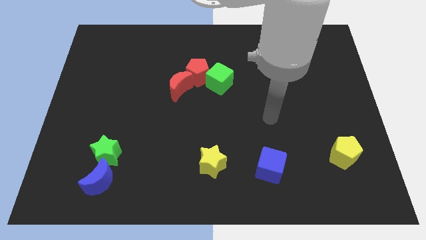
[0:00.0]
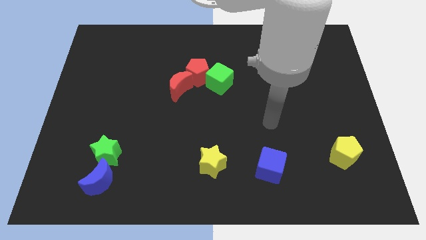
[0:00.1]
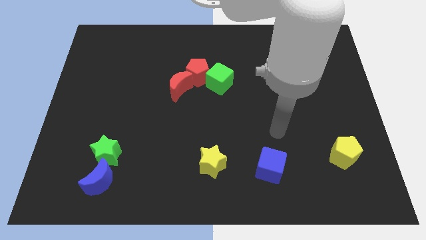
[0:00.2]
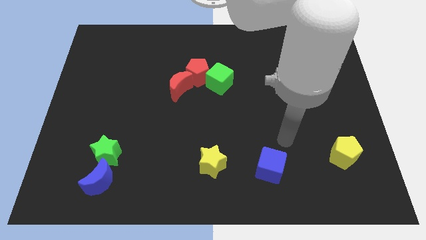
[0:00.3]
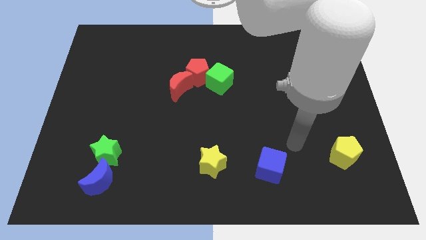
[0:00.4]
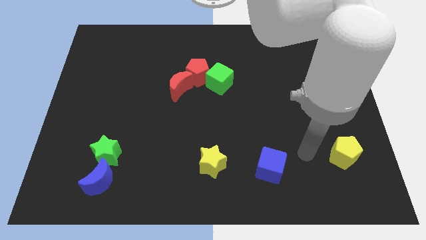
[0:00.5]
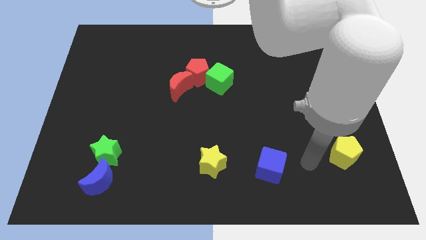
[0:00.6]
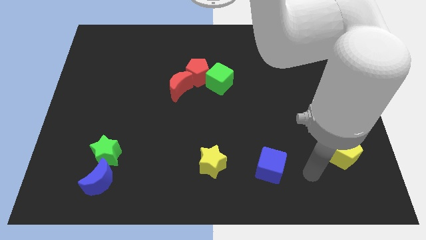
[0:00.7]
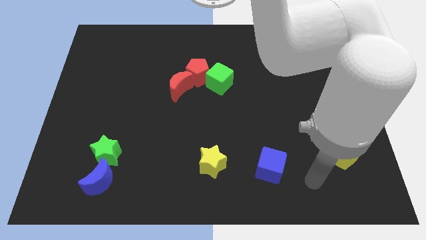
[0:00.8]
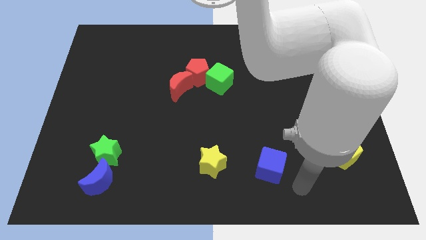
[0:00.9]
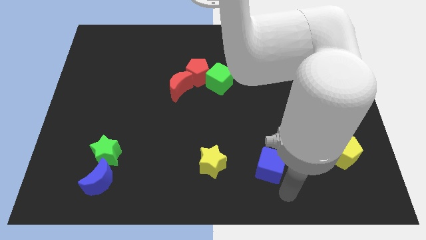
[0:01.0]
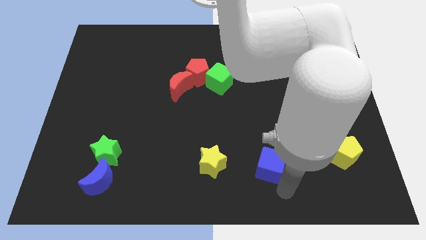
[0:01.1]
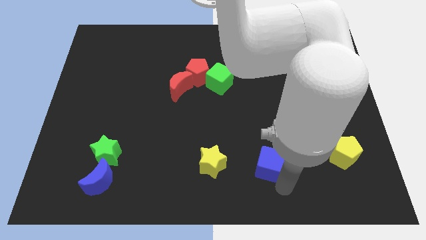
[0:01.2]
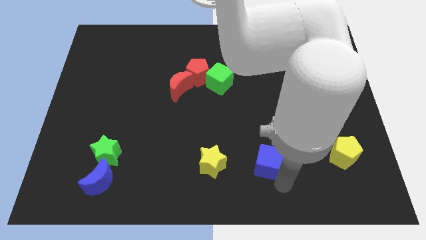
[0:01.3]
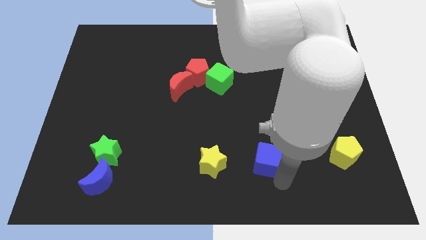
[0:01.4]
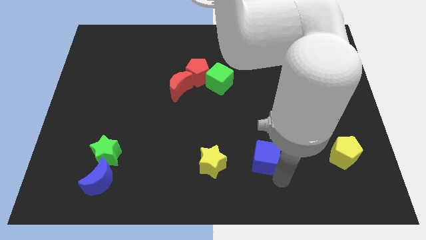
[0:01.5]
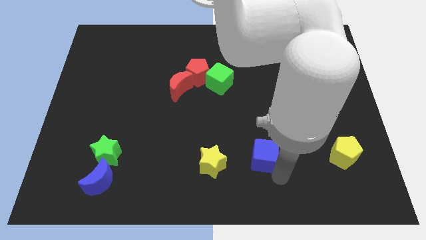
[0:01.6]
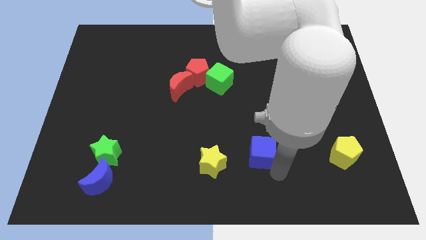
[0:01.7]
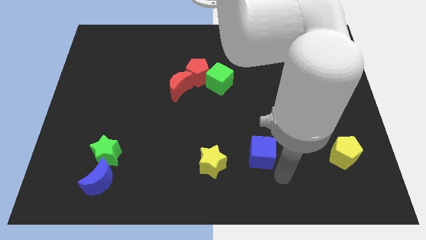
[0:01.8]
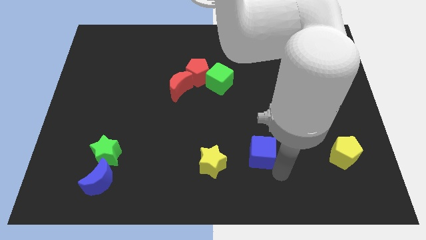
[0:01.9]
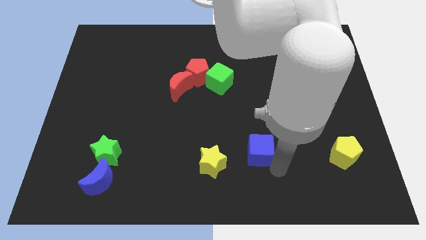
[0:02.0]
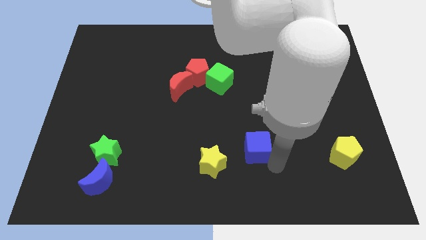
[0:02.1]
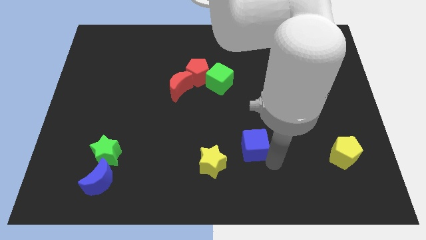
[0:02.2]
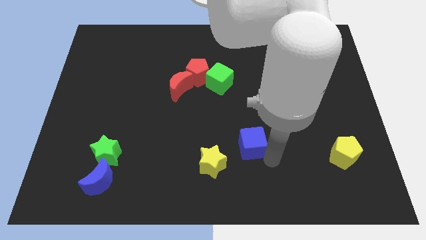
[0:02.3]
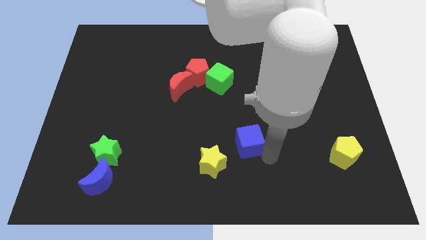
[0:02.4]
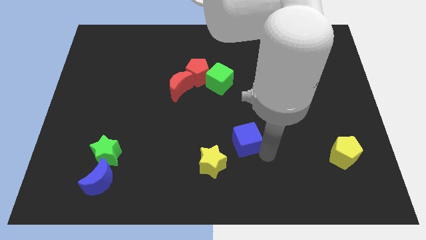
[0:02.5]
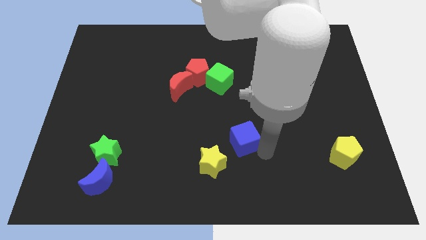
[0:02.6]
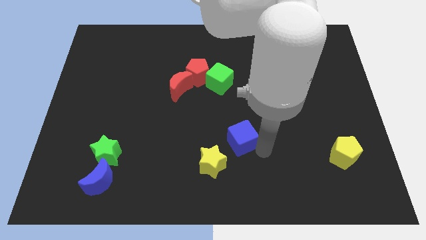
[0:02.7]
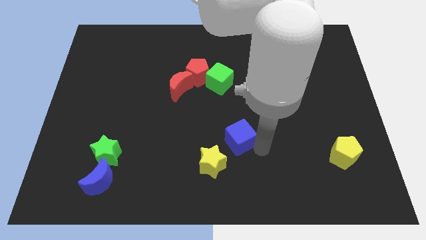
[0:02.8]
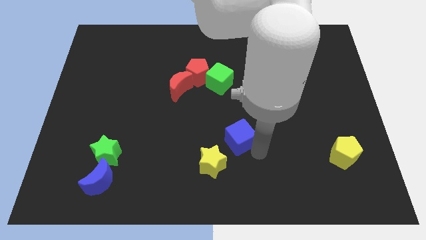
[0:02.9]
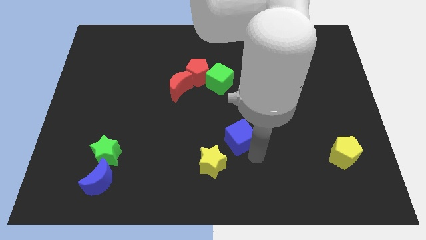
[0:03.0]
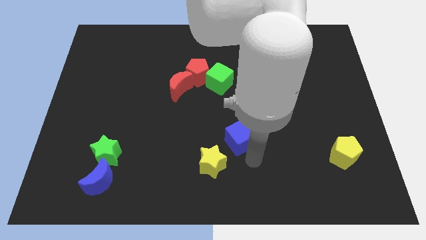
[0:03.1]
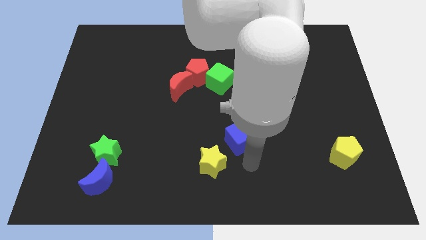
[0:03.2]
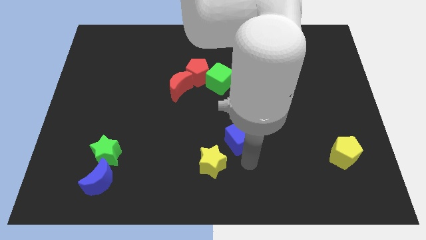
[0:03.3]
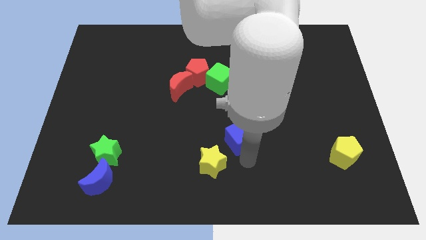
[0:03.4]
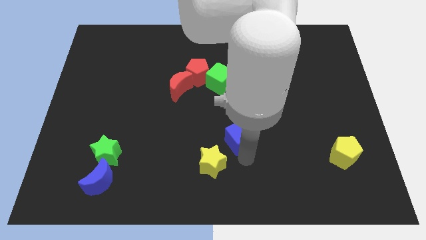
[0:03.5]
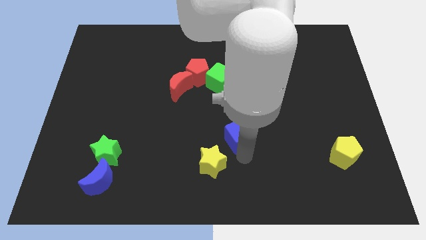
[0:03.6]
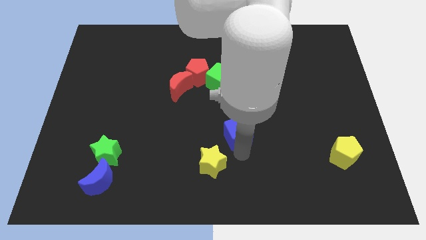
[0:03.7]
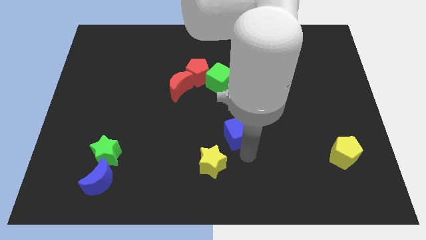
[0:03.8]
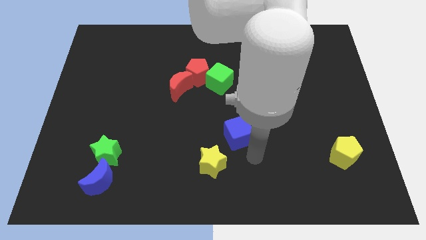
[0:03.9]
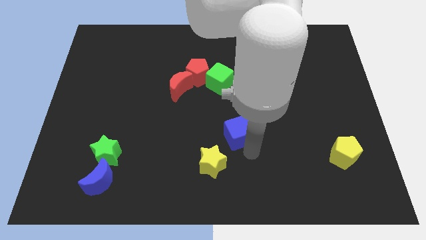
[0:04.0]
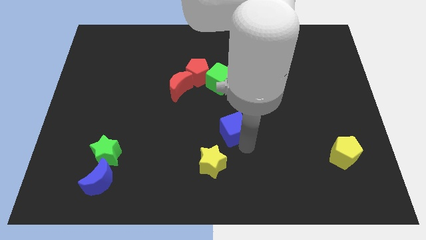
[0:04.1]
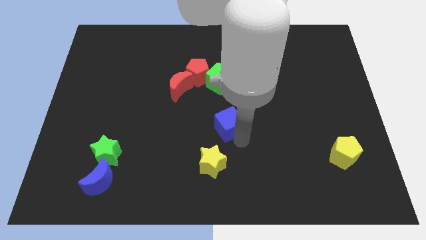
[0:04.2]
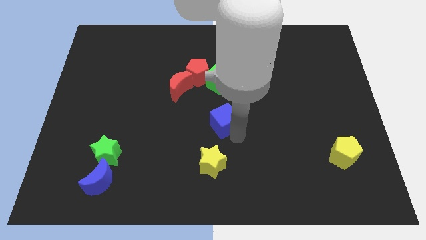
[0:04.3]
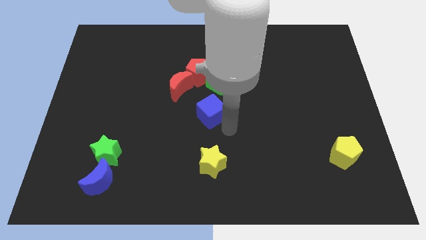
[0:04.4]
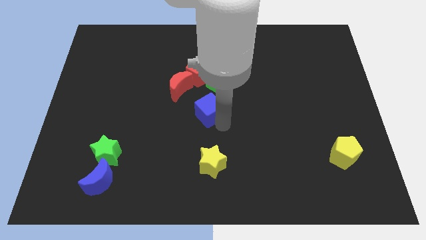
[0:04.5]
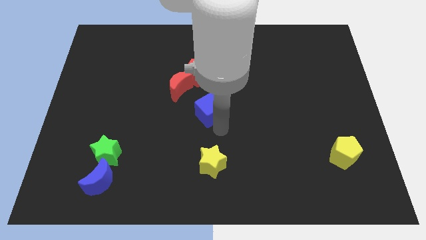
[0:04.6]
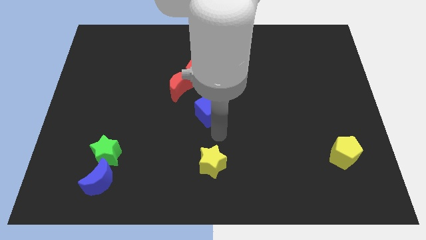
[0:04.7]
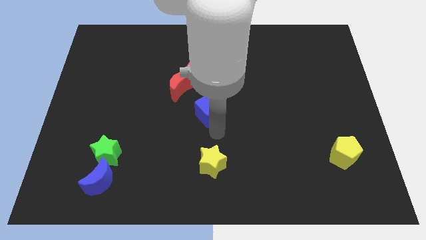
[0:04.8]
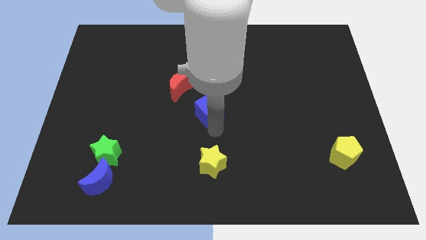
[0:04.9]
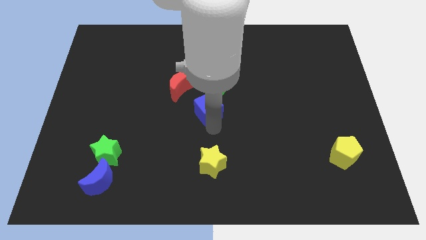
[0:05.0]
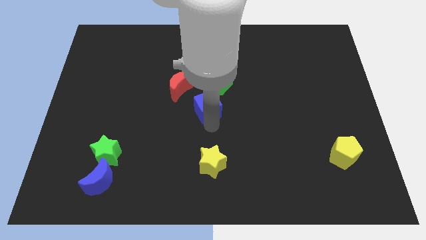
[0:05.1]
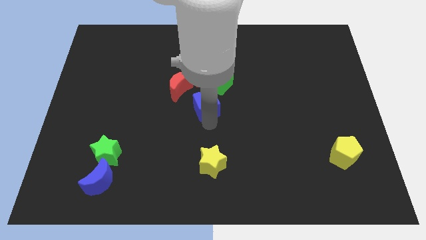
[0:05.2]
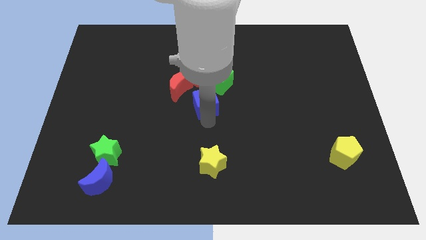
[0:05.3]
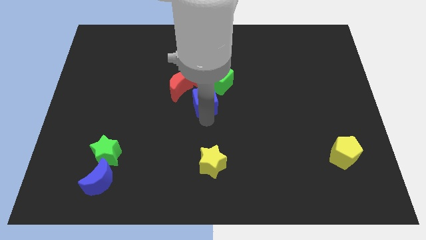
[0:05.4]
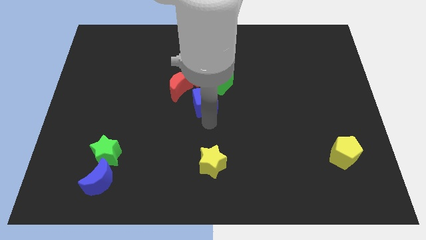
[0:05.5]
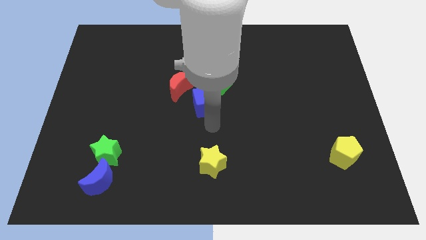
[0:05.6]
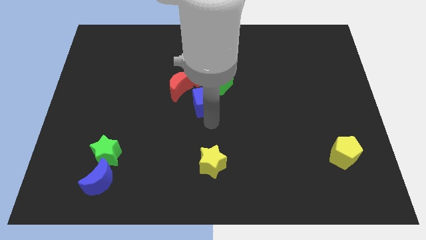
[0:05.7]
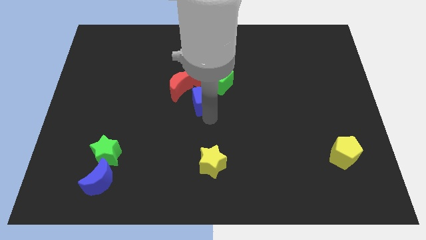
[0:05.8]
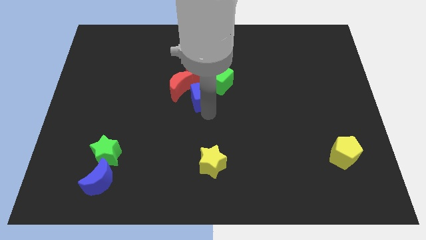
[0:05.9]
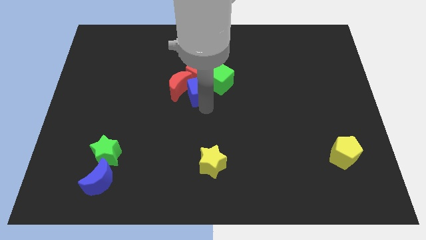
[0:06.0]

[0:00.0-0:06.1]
push the blue cube next to the red pentagon

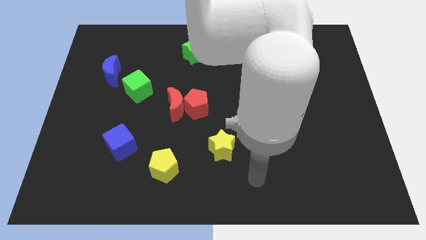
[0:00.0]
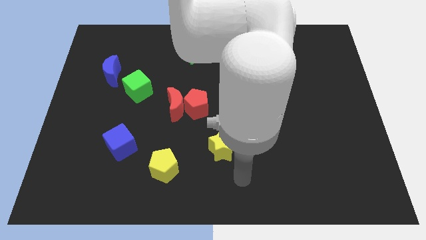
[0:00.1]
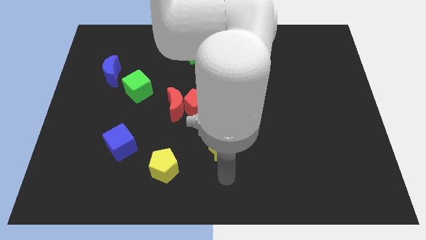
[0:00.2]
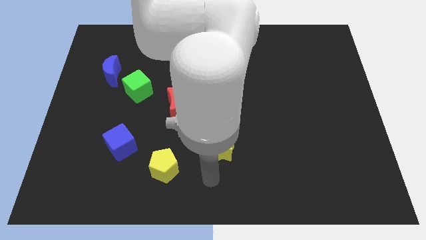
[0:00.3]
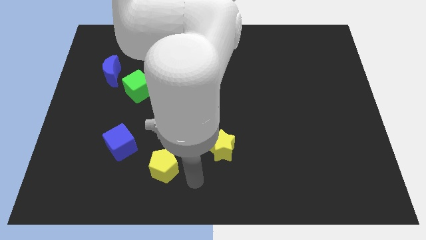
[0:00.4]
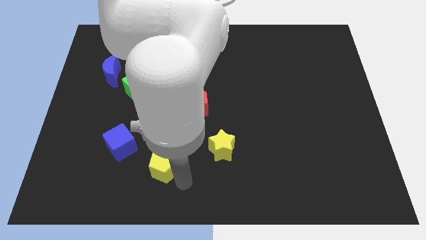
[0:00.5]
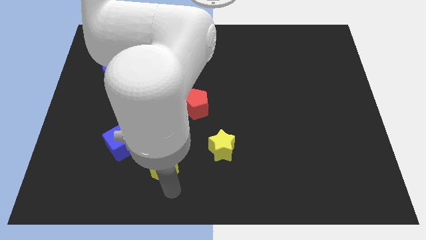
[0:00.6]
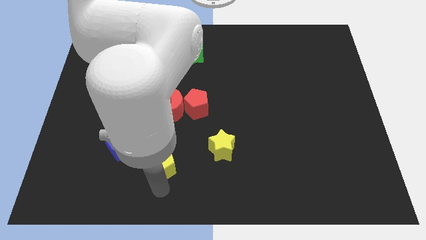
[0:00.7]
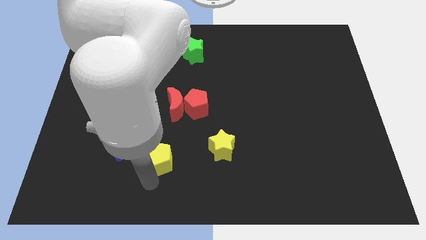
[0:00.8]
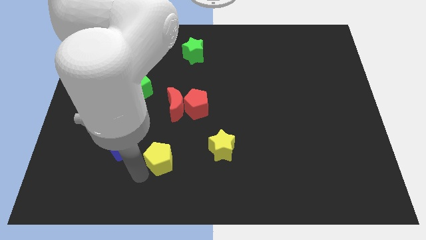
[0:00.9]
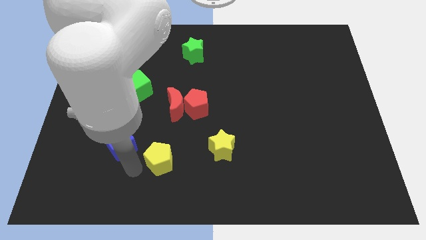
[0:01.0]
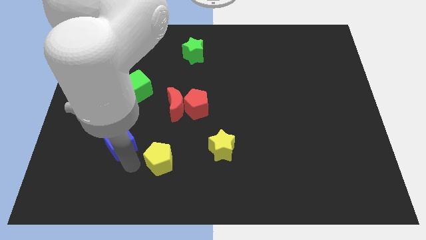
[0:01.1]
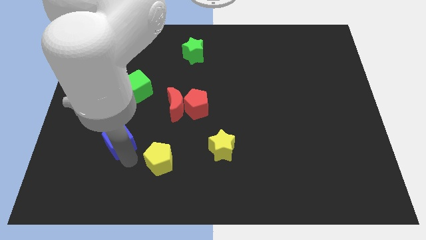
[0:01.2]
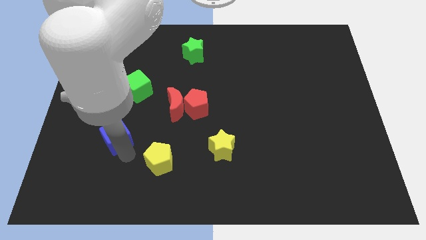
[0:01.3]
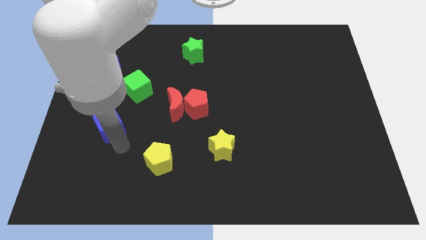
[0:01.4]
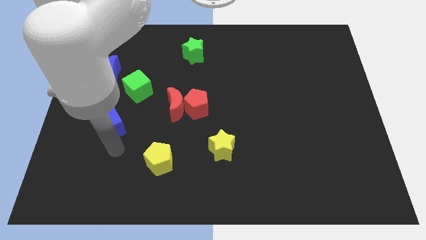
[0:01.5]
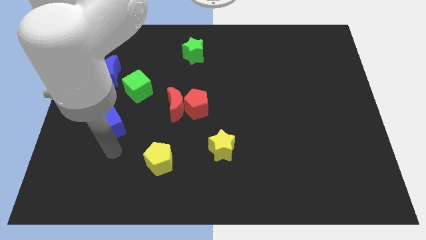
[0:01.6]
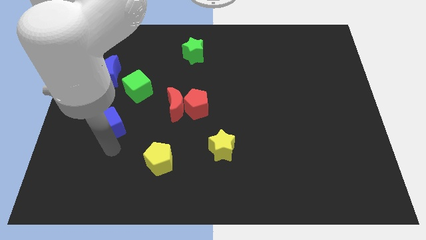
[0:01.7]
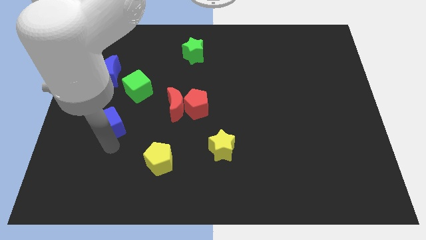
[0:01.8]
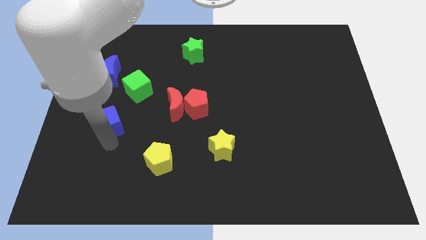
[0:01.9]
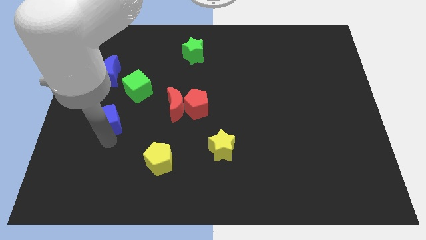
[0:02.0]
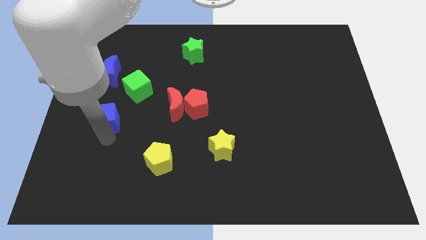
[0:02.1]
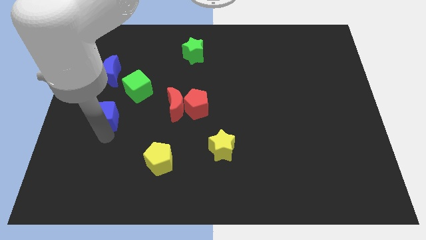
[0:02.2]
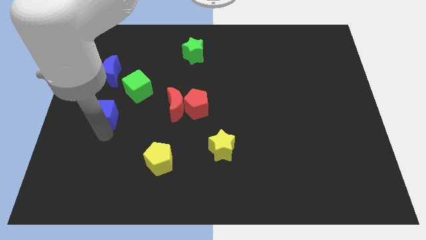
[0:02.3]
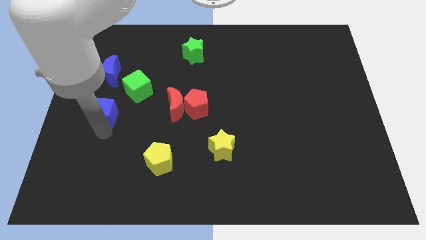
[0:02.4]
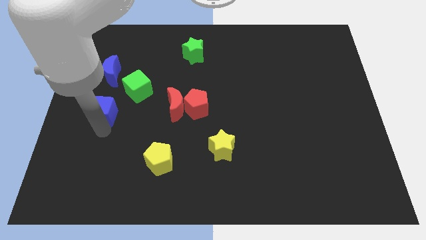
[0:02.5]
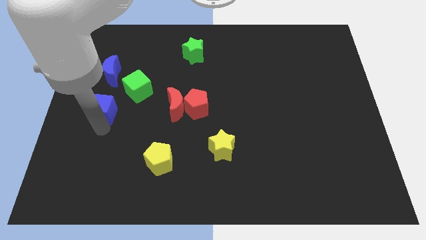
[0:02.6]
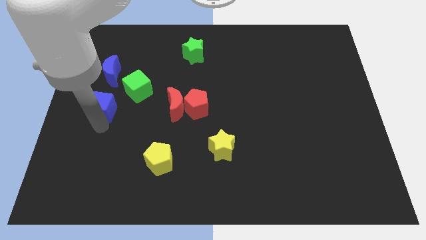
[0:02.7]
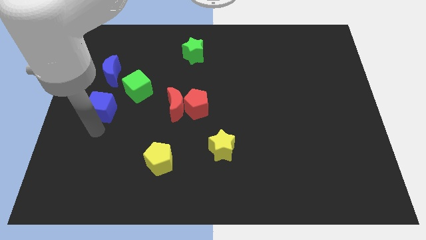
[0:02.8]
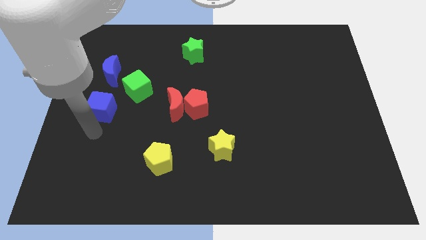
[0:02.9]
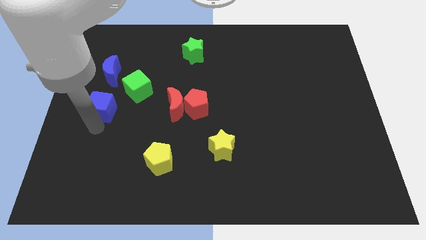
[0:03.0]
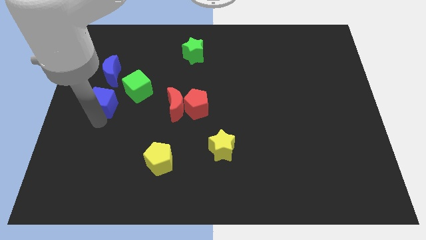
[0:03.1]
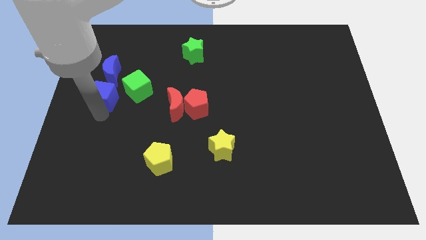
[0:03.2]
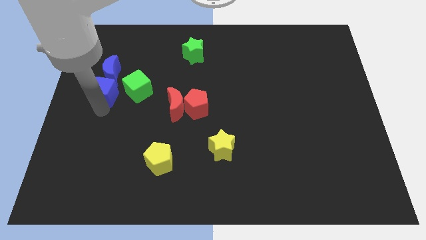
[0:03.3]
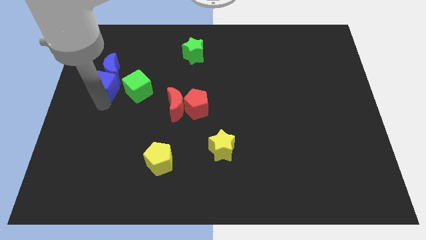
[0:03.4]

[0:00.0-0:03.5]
slide the blue cube next to the blue moon
